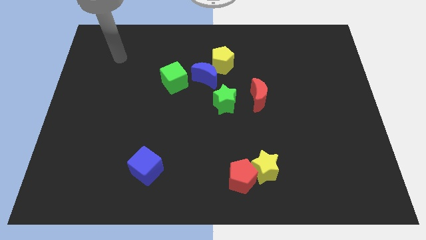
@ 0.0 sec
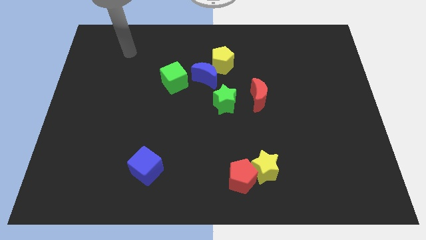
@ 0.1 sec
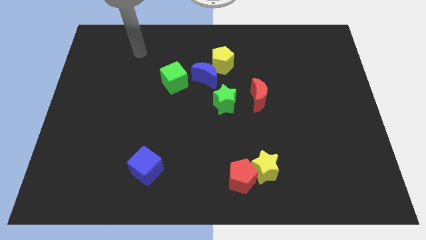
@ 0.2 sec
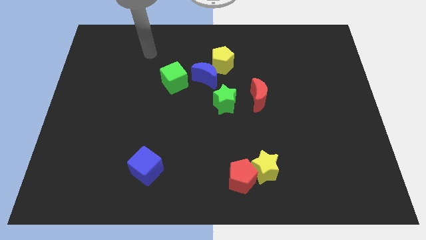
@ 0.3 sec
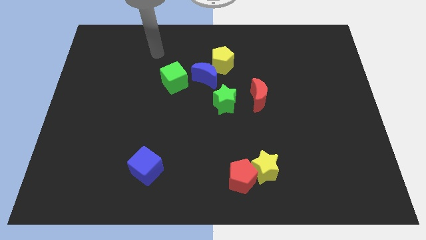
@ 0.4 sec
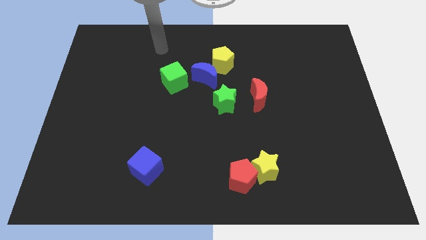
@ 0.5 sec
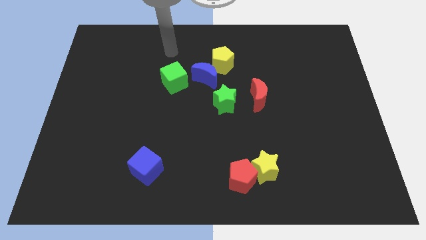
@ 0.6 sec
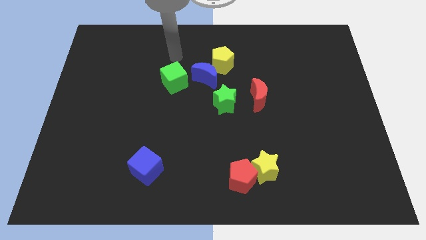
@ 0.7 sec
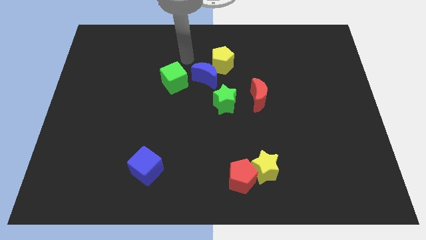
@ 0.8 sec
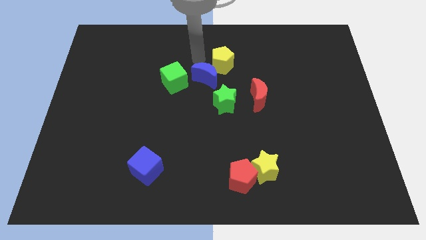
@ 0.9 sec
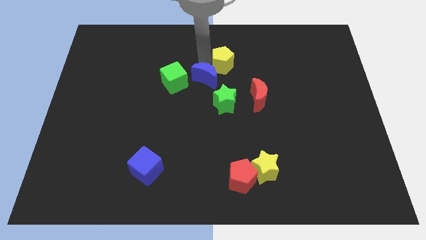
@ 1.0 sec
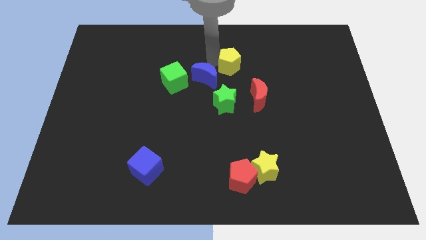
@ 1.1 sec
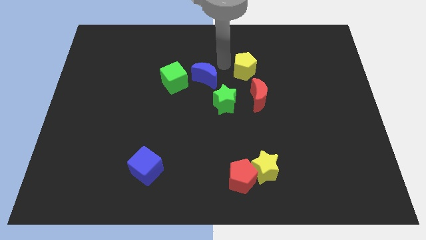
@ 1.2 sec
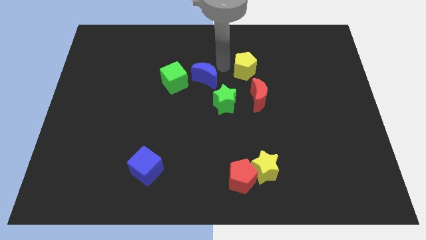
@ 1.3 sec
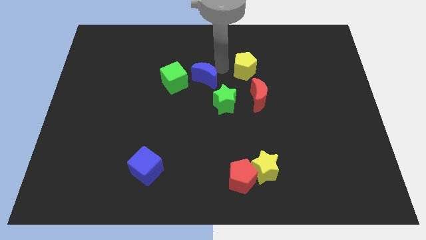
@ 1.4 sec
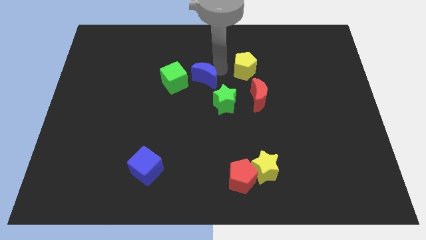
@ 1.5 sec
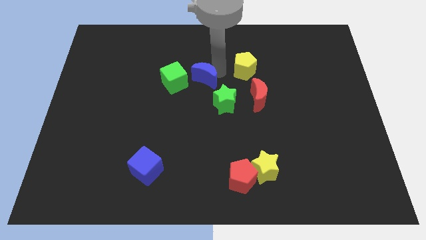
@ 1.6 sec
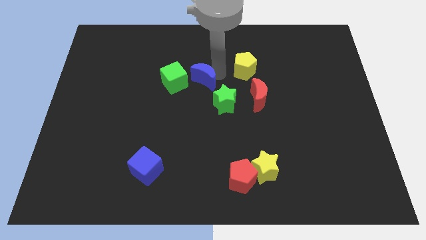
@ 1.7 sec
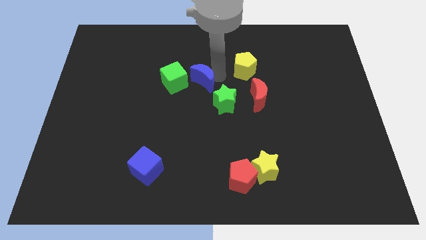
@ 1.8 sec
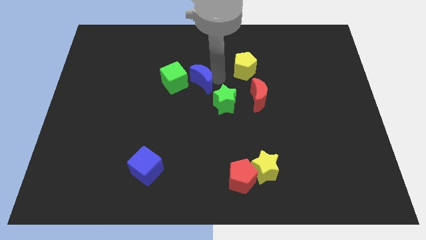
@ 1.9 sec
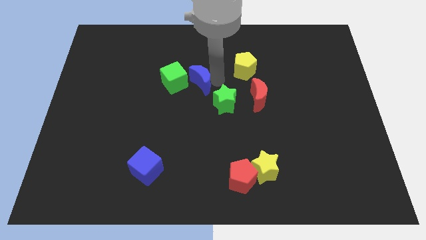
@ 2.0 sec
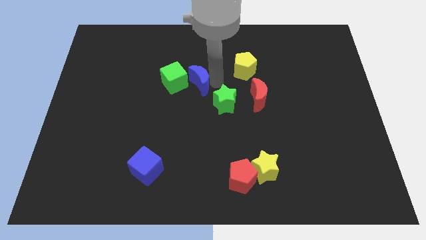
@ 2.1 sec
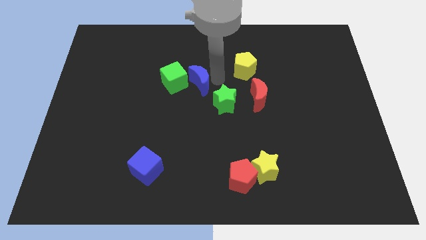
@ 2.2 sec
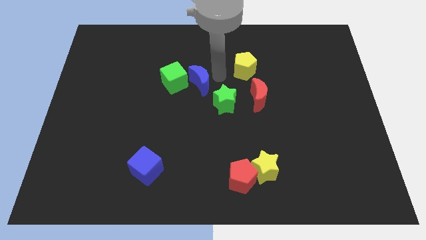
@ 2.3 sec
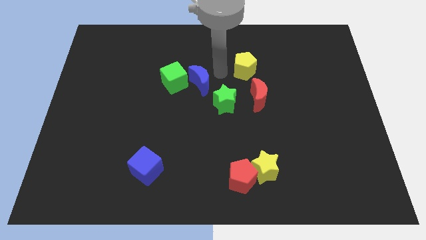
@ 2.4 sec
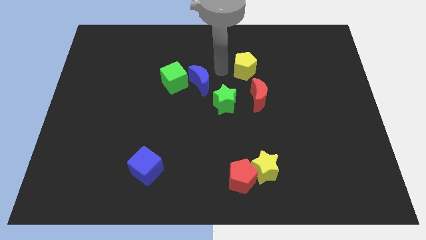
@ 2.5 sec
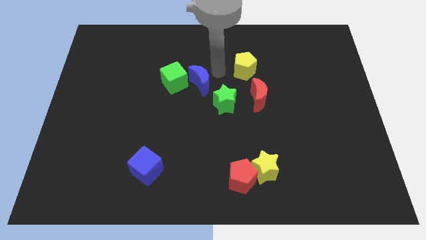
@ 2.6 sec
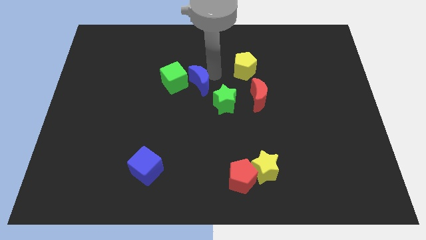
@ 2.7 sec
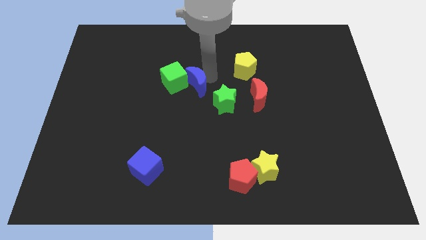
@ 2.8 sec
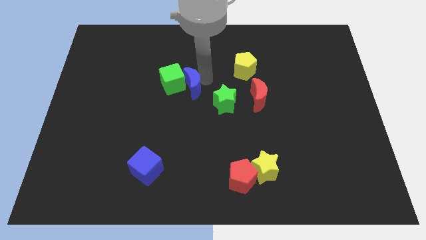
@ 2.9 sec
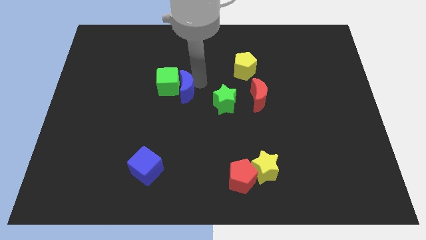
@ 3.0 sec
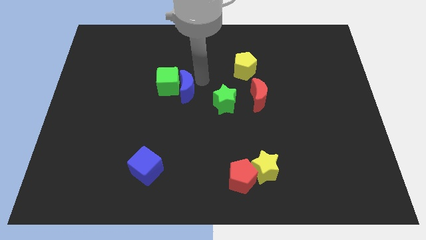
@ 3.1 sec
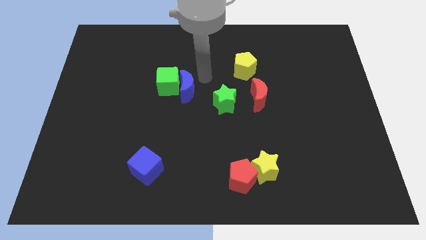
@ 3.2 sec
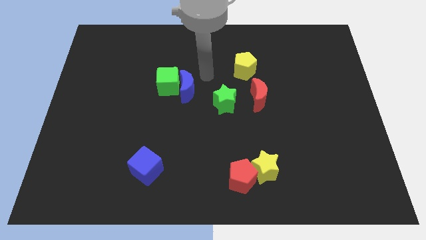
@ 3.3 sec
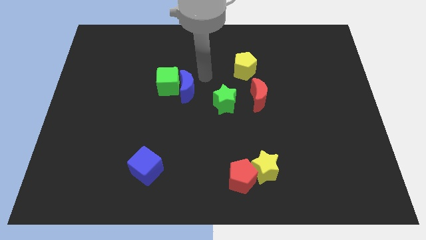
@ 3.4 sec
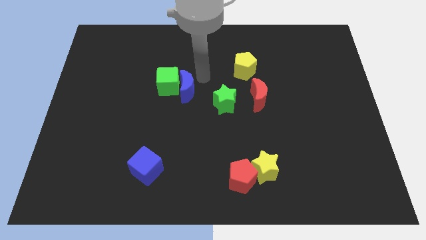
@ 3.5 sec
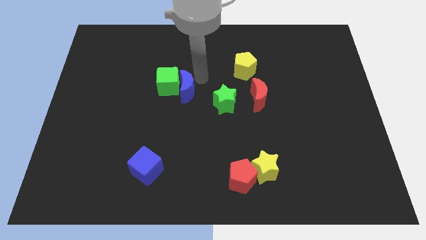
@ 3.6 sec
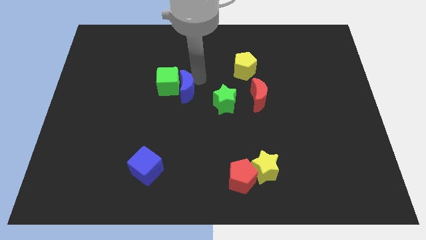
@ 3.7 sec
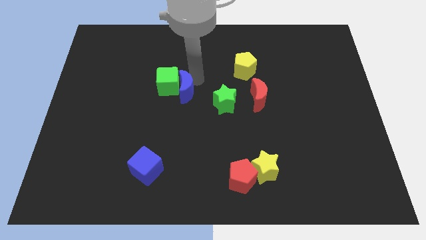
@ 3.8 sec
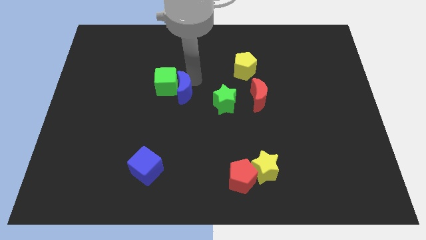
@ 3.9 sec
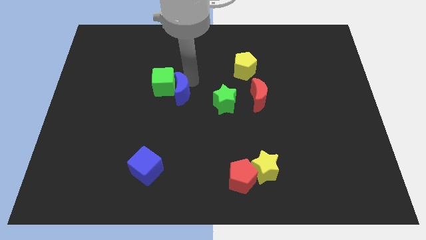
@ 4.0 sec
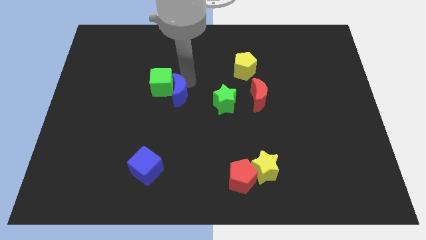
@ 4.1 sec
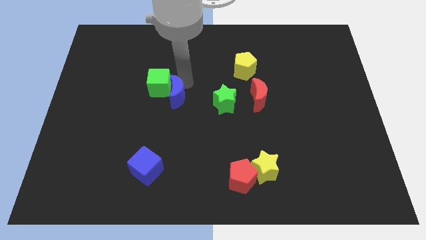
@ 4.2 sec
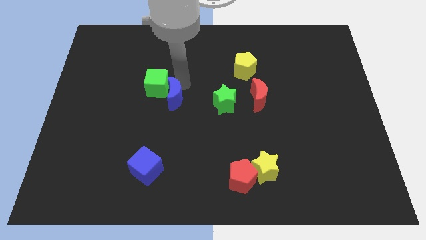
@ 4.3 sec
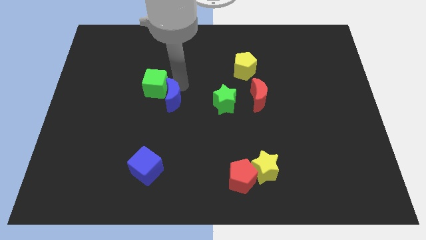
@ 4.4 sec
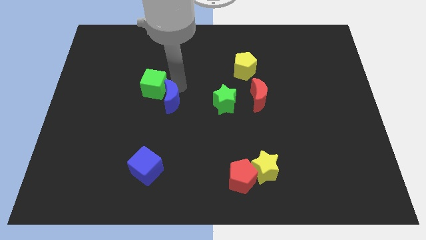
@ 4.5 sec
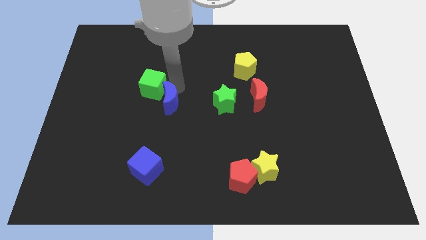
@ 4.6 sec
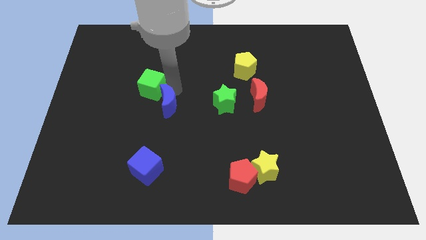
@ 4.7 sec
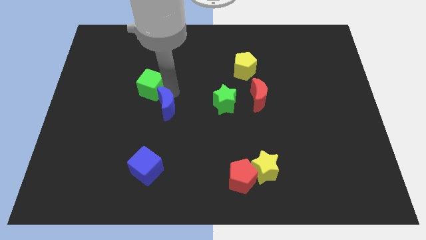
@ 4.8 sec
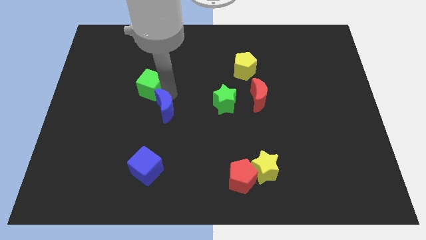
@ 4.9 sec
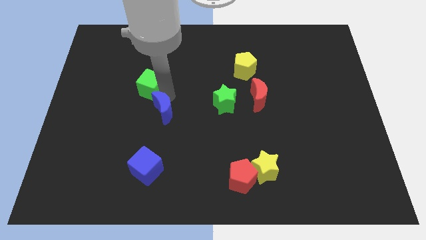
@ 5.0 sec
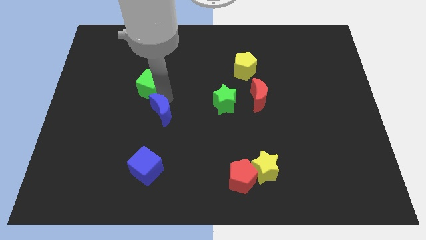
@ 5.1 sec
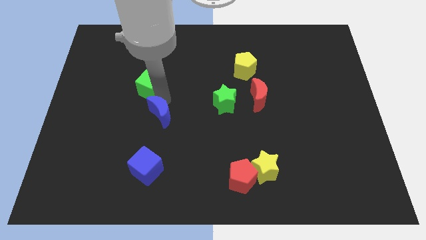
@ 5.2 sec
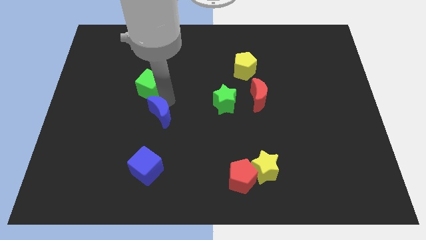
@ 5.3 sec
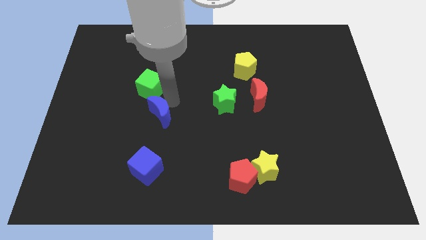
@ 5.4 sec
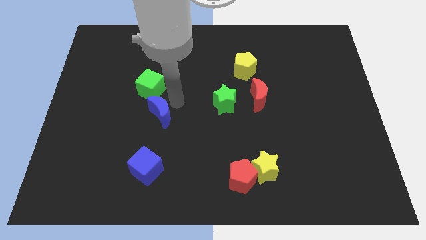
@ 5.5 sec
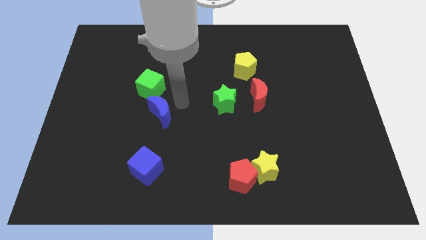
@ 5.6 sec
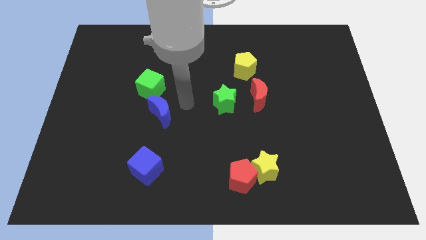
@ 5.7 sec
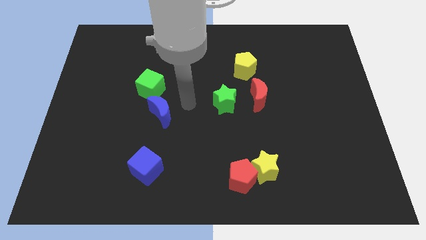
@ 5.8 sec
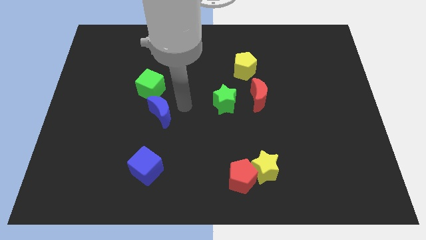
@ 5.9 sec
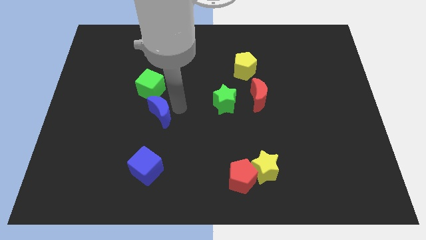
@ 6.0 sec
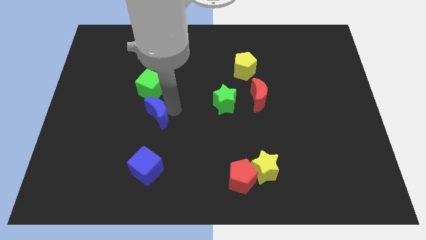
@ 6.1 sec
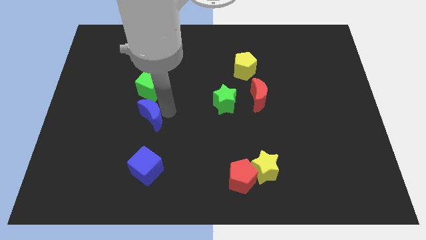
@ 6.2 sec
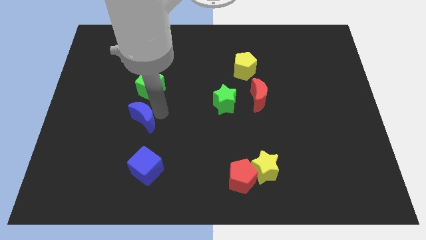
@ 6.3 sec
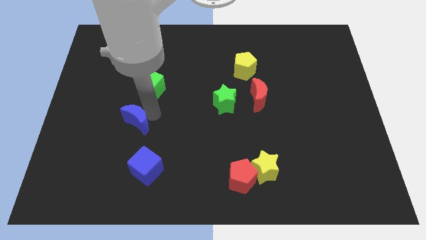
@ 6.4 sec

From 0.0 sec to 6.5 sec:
slide the blue moon downwards and to the left

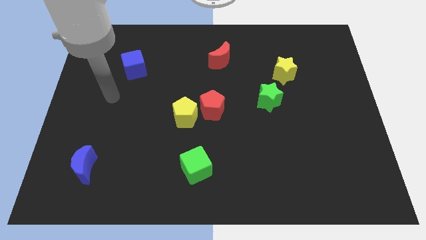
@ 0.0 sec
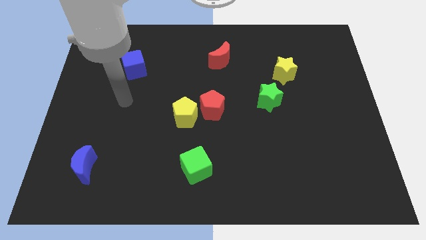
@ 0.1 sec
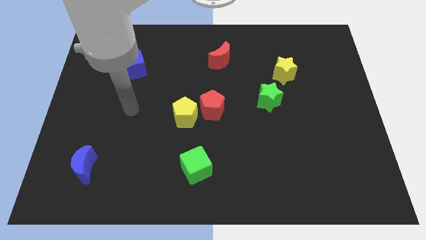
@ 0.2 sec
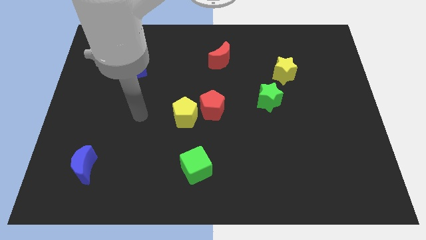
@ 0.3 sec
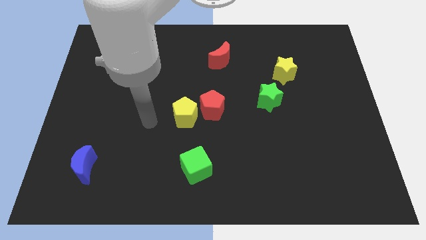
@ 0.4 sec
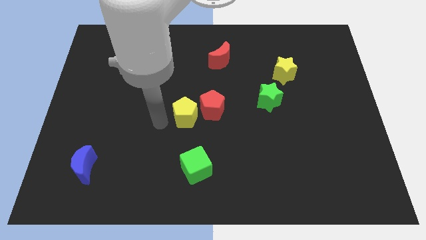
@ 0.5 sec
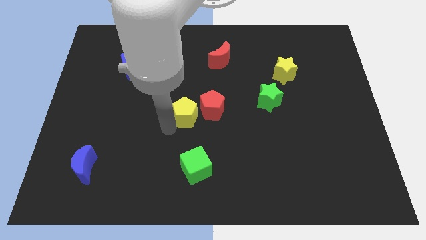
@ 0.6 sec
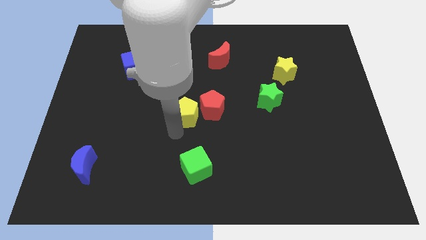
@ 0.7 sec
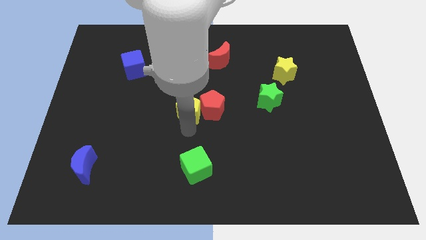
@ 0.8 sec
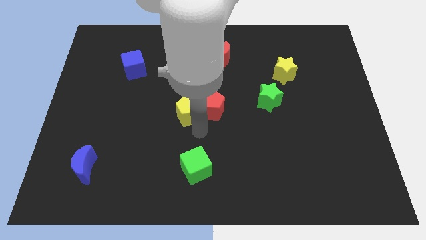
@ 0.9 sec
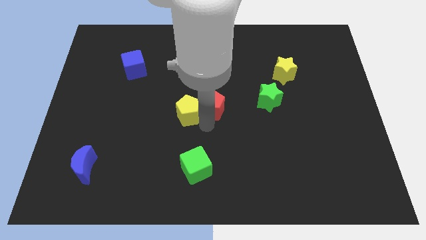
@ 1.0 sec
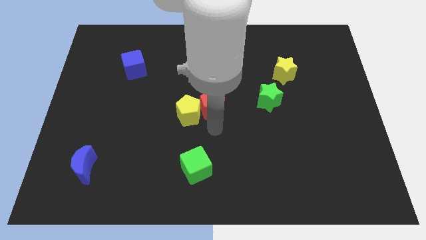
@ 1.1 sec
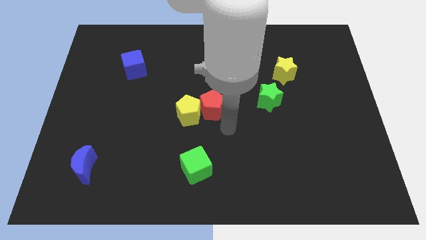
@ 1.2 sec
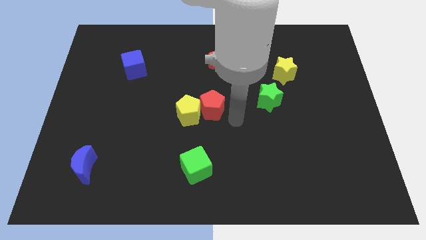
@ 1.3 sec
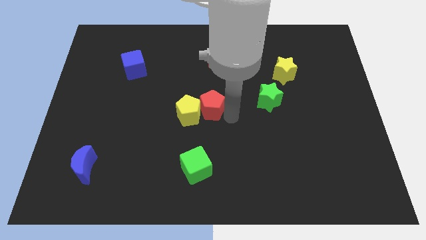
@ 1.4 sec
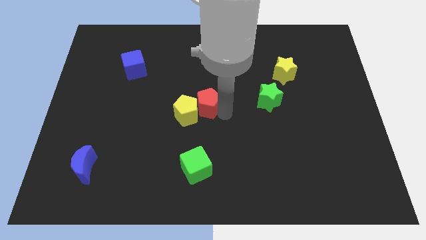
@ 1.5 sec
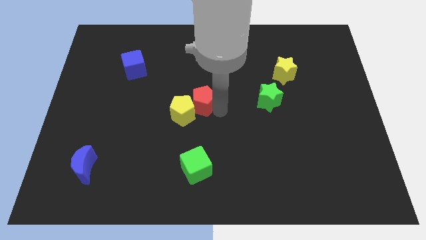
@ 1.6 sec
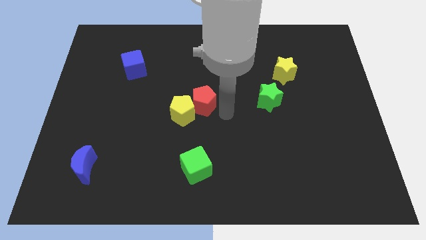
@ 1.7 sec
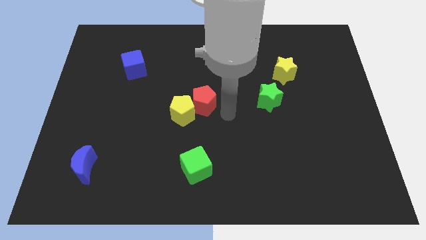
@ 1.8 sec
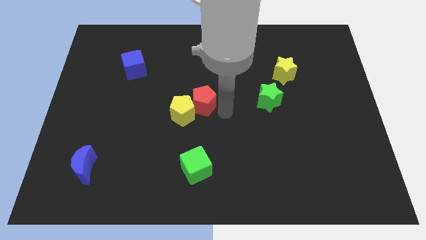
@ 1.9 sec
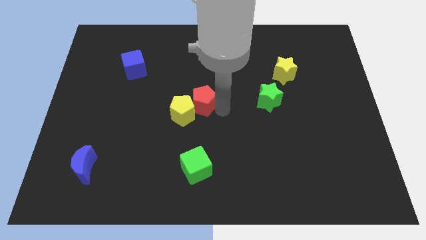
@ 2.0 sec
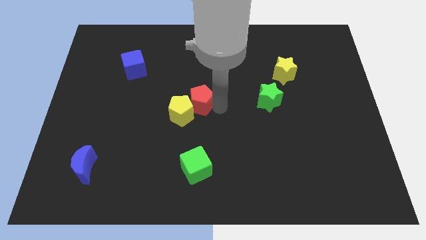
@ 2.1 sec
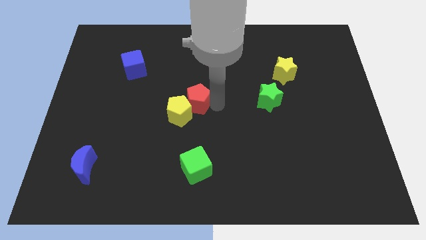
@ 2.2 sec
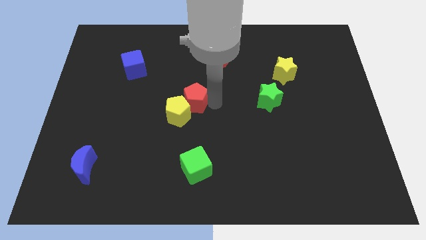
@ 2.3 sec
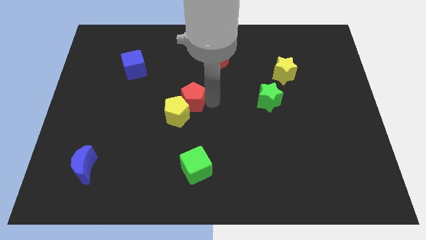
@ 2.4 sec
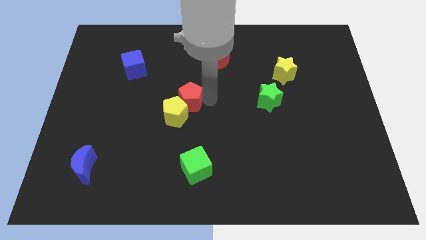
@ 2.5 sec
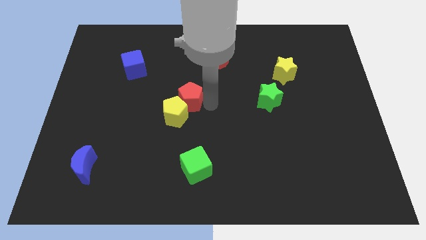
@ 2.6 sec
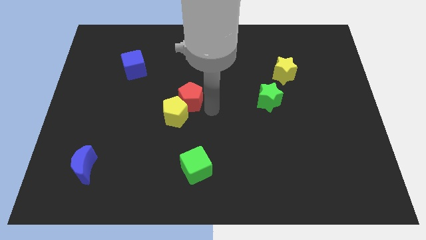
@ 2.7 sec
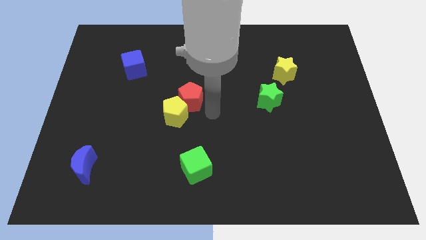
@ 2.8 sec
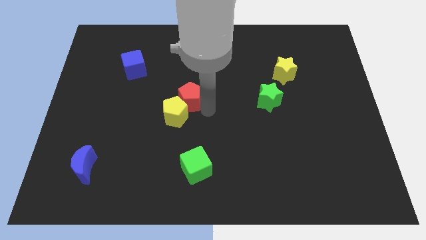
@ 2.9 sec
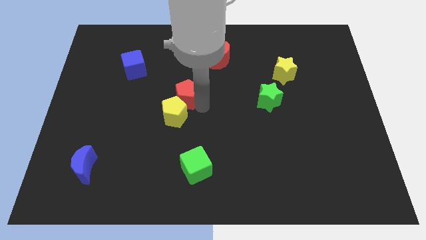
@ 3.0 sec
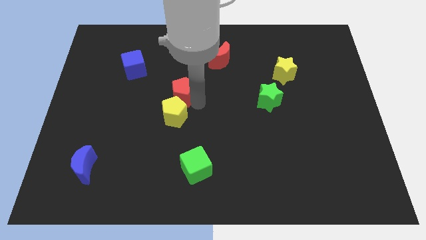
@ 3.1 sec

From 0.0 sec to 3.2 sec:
move the red pentagon diagonally upwards and left a little
